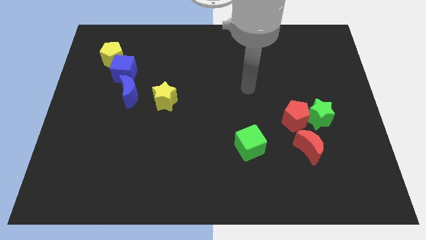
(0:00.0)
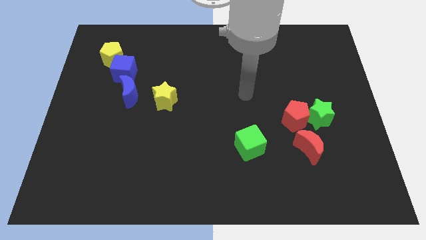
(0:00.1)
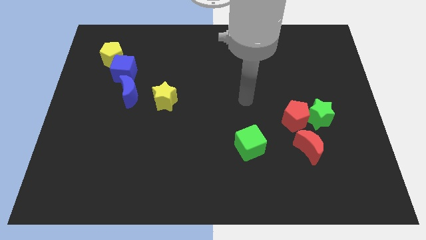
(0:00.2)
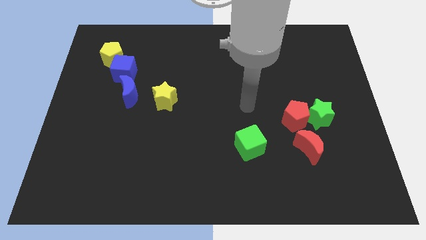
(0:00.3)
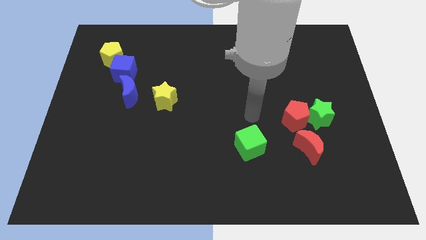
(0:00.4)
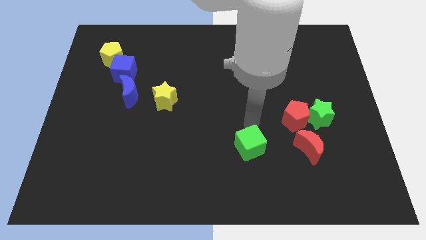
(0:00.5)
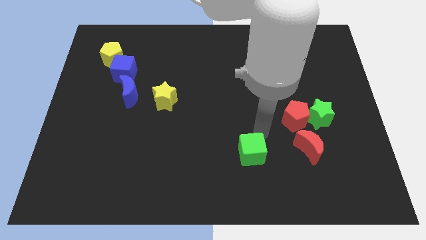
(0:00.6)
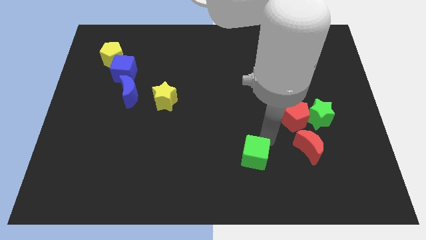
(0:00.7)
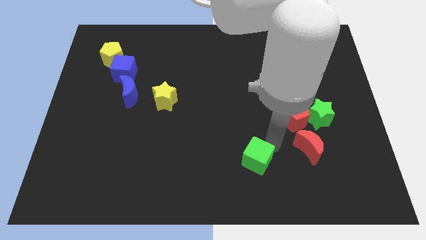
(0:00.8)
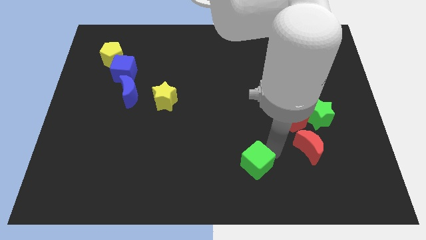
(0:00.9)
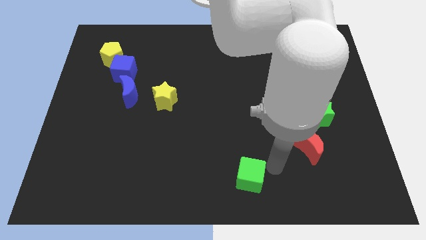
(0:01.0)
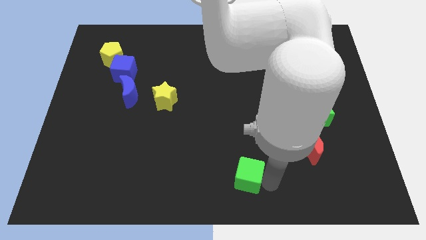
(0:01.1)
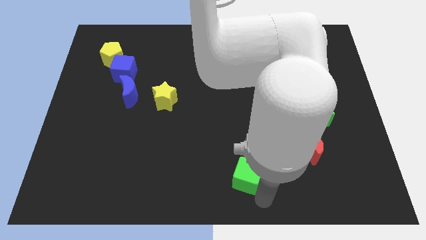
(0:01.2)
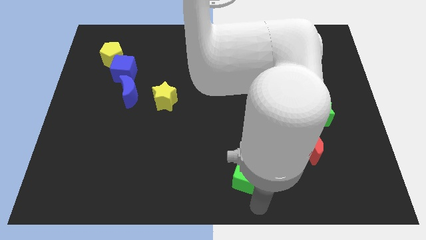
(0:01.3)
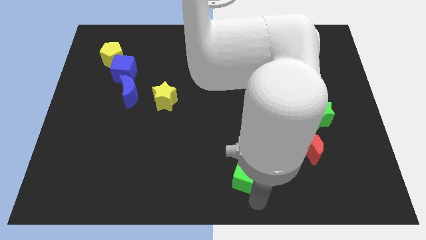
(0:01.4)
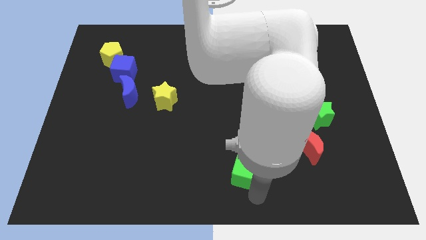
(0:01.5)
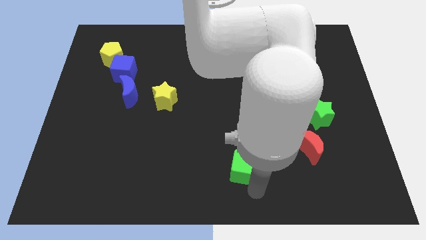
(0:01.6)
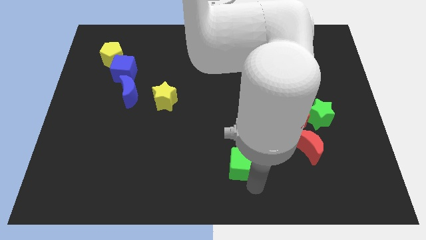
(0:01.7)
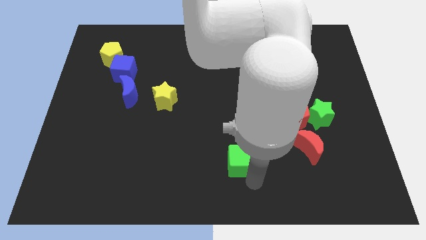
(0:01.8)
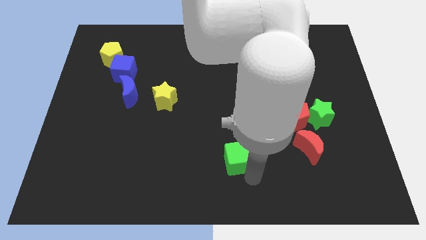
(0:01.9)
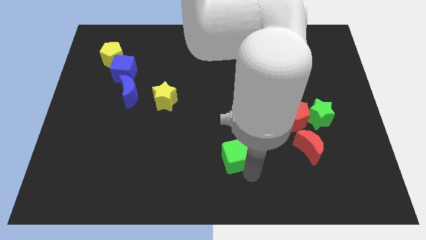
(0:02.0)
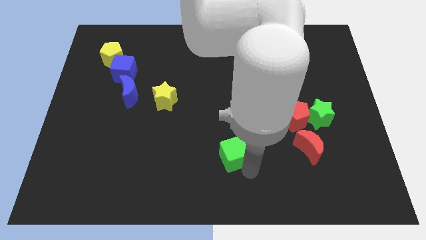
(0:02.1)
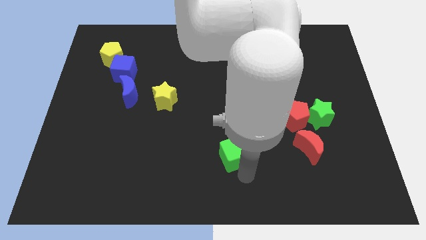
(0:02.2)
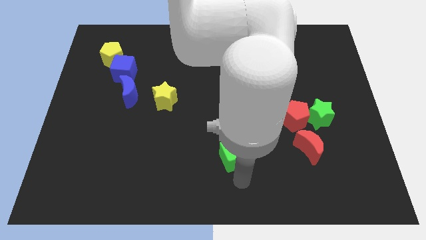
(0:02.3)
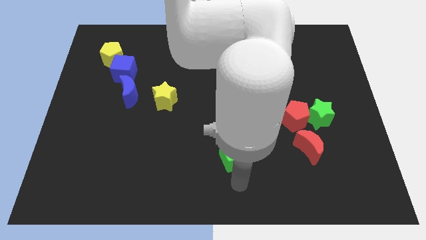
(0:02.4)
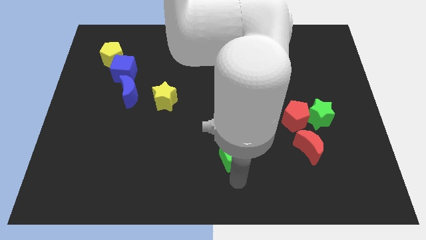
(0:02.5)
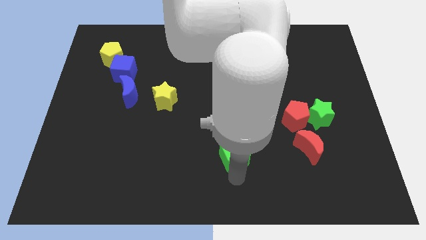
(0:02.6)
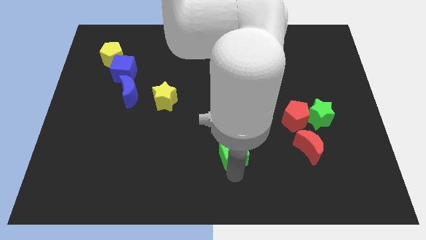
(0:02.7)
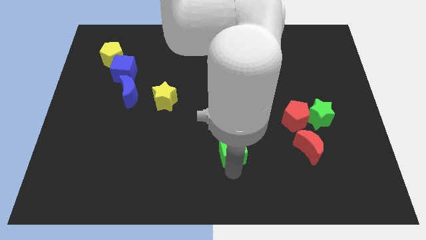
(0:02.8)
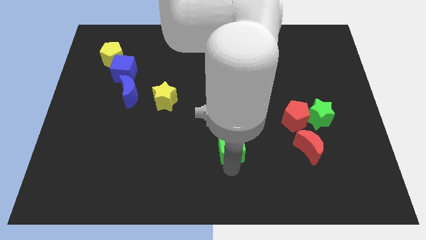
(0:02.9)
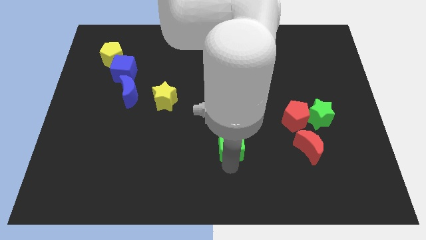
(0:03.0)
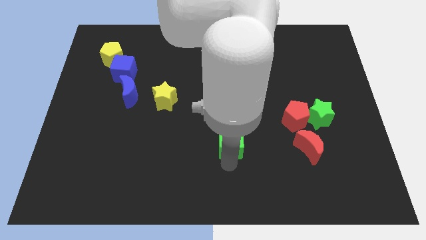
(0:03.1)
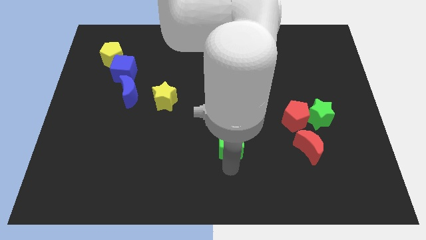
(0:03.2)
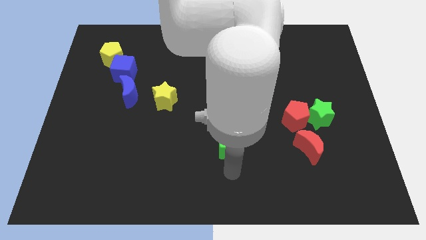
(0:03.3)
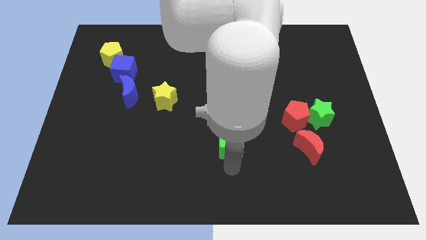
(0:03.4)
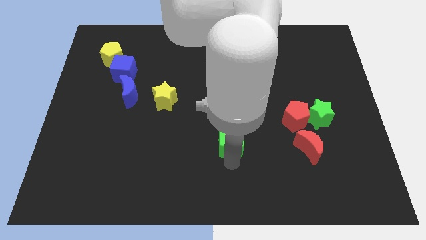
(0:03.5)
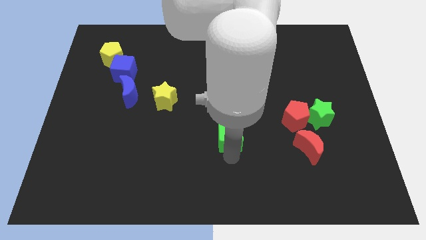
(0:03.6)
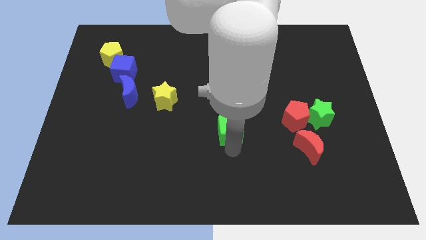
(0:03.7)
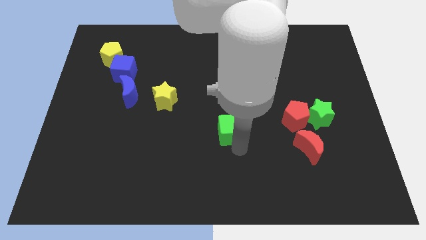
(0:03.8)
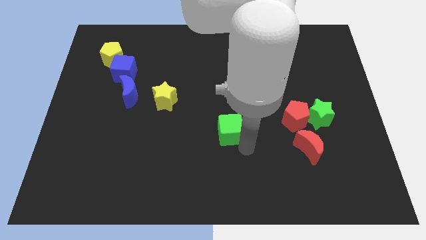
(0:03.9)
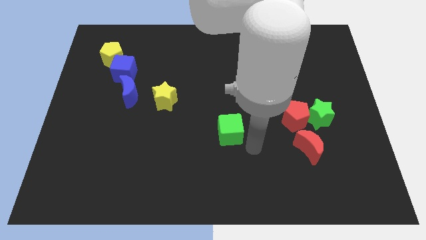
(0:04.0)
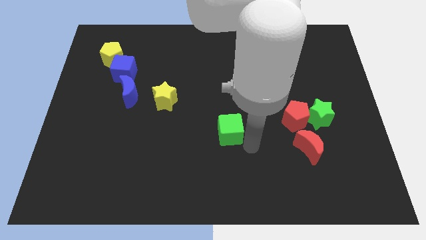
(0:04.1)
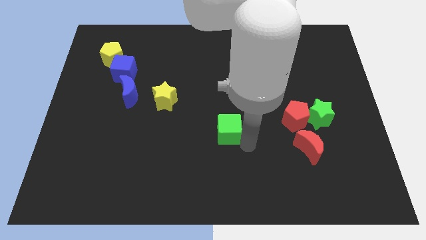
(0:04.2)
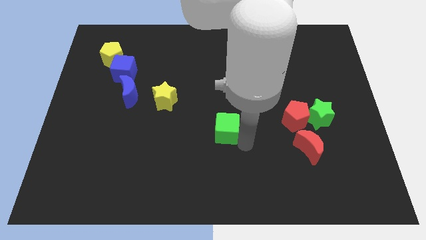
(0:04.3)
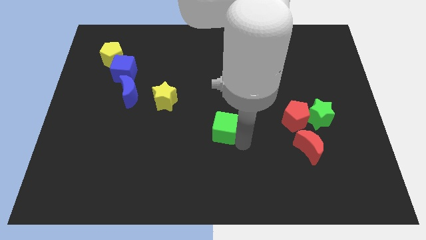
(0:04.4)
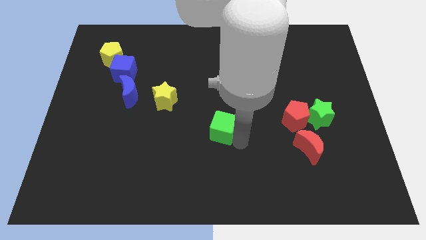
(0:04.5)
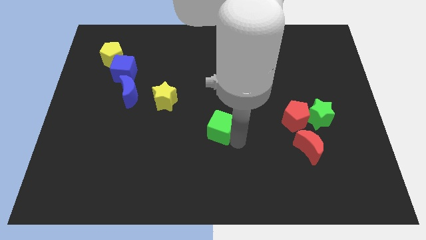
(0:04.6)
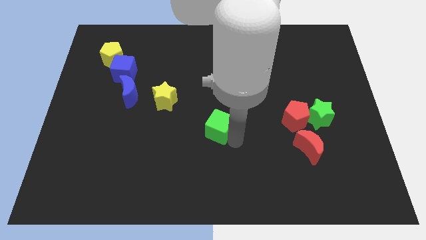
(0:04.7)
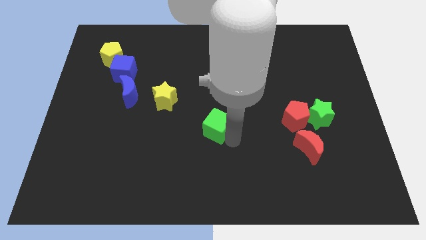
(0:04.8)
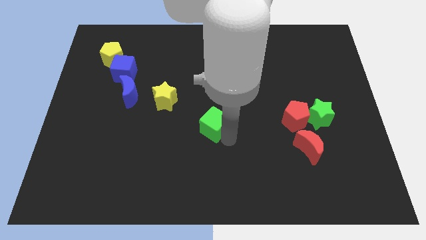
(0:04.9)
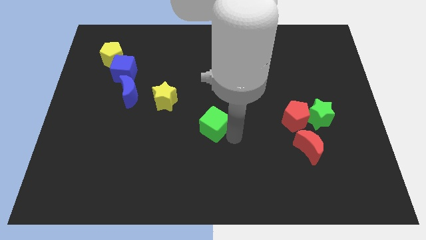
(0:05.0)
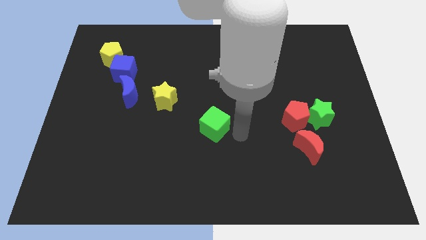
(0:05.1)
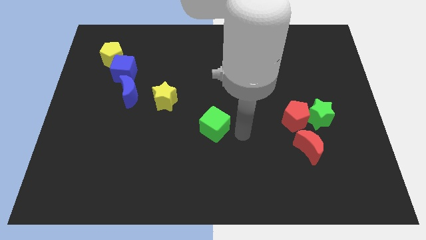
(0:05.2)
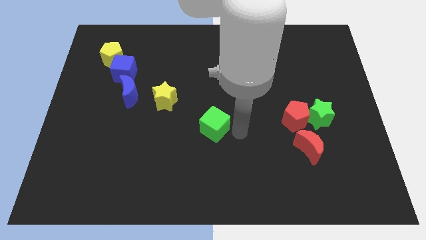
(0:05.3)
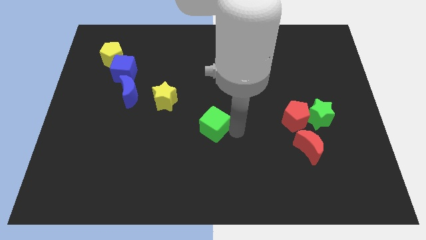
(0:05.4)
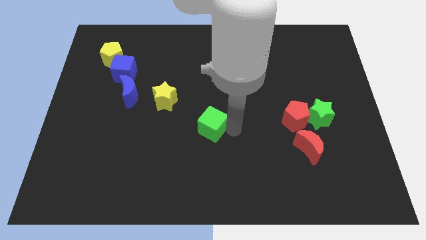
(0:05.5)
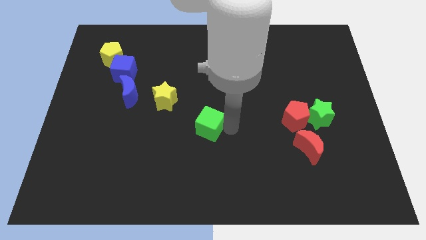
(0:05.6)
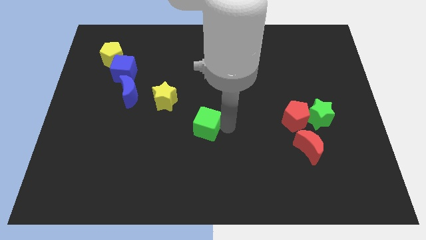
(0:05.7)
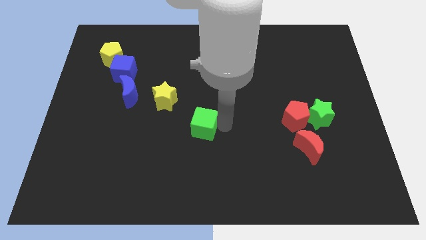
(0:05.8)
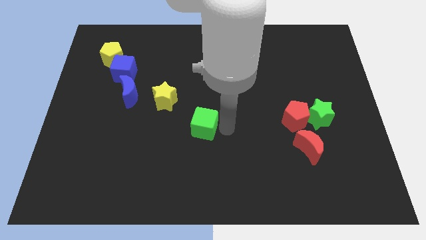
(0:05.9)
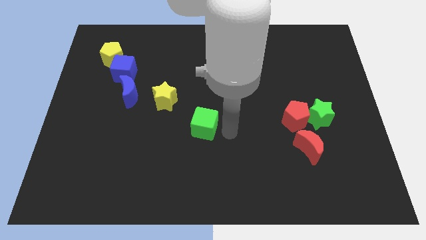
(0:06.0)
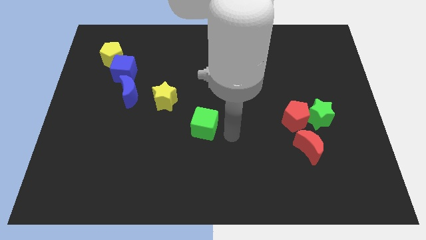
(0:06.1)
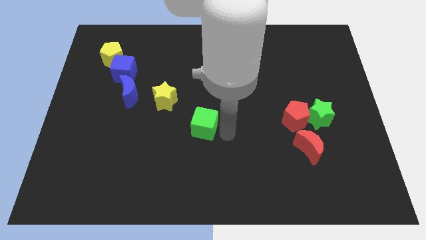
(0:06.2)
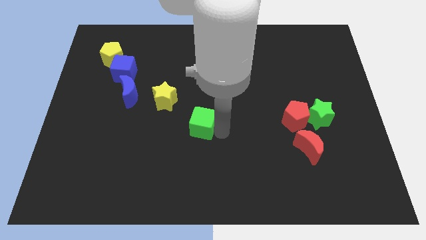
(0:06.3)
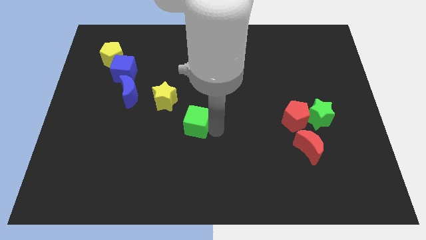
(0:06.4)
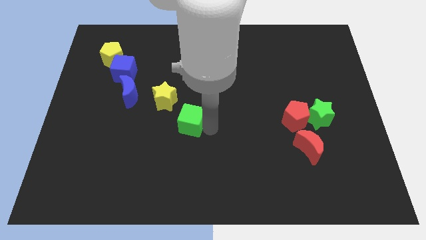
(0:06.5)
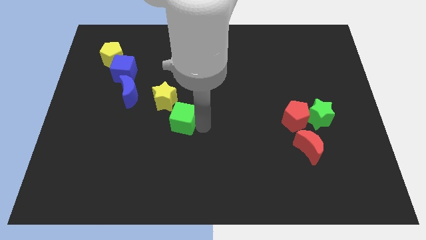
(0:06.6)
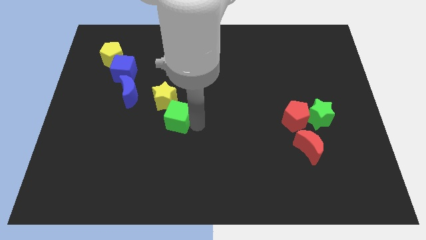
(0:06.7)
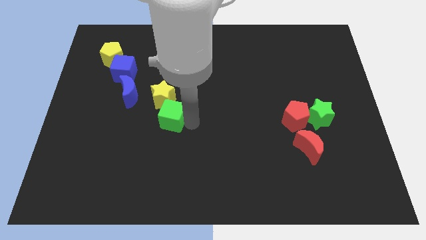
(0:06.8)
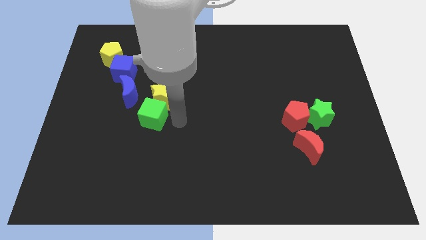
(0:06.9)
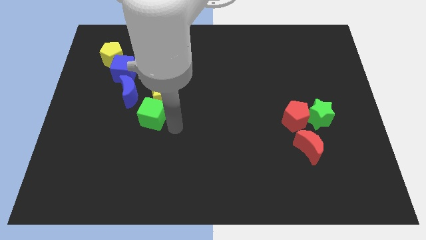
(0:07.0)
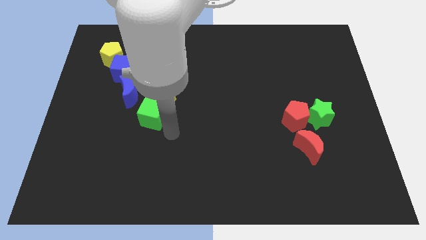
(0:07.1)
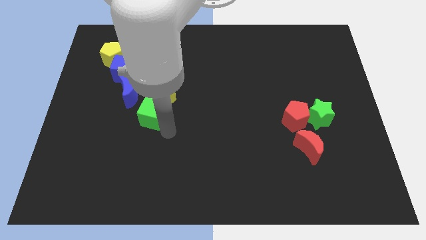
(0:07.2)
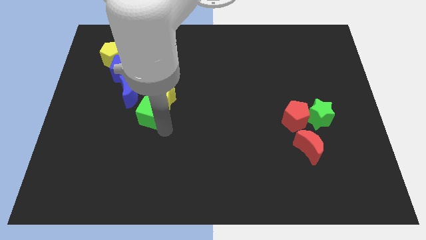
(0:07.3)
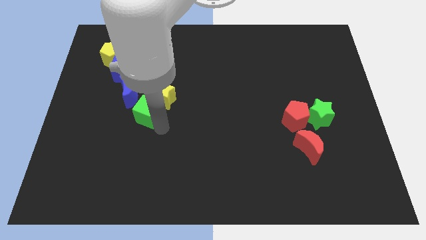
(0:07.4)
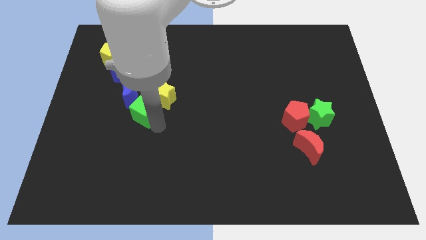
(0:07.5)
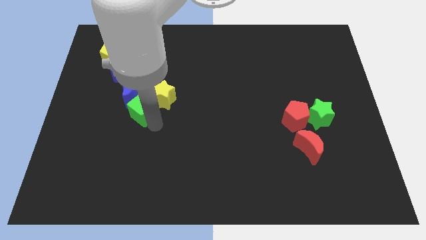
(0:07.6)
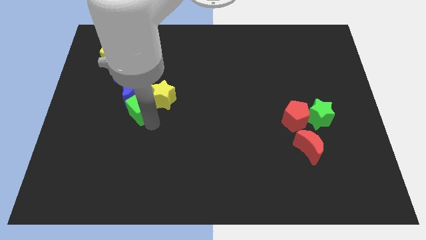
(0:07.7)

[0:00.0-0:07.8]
push the green cube towards the blue moon
